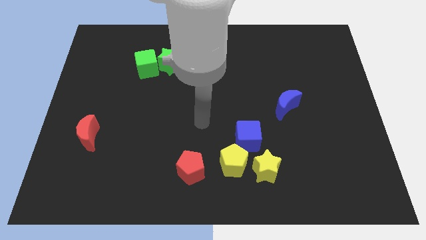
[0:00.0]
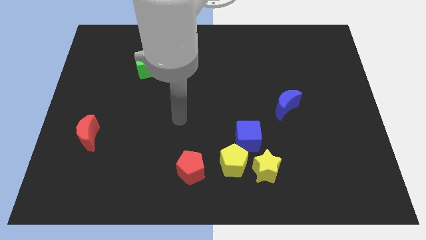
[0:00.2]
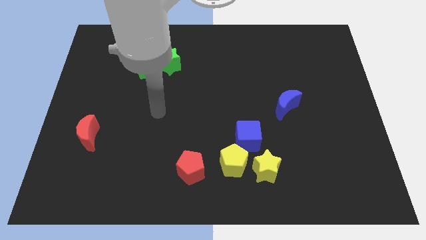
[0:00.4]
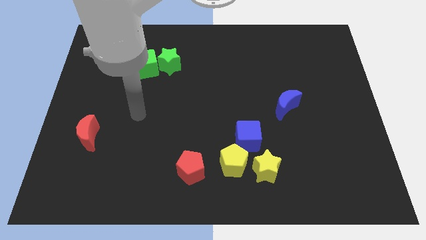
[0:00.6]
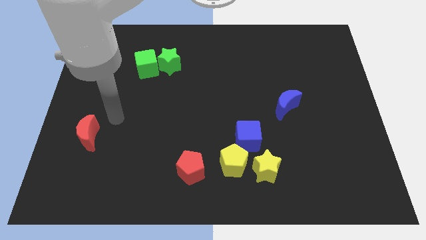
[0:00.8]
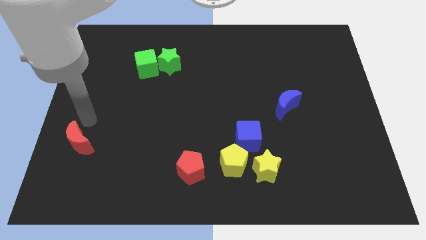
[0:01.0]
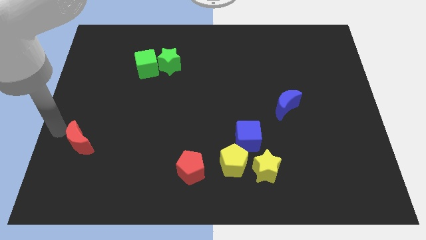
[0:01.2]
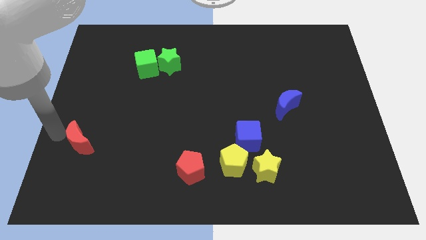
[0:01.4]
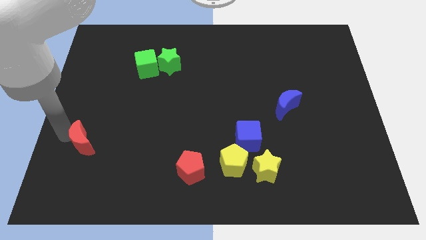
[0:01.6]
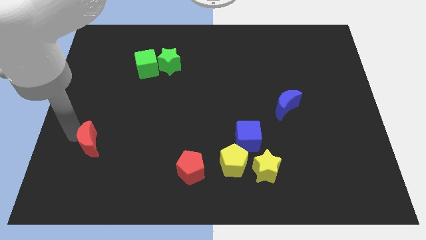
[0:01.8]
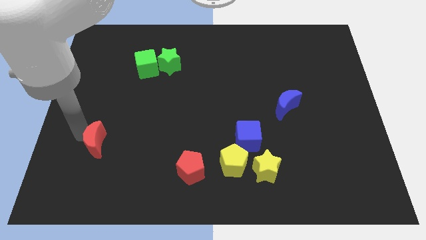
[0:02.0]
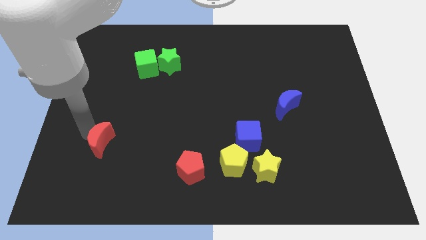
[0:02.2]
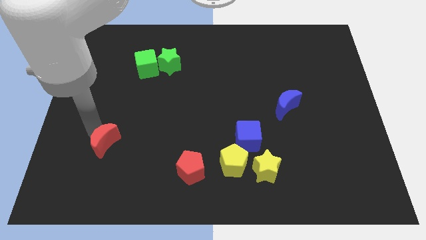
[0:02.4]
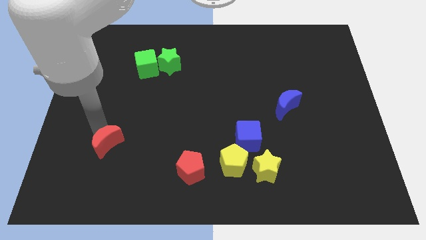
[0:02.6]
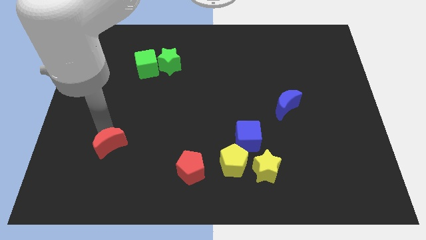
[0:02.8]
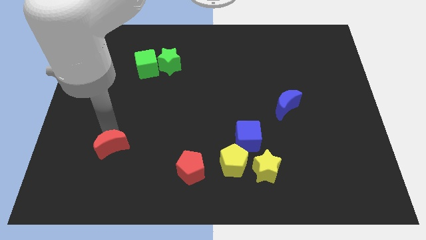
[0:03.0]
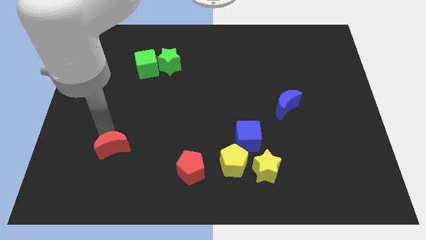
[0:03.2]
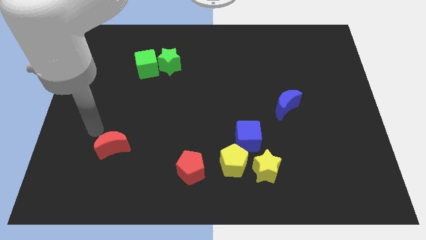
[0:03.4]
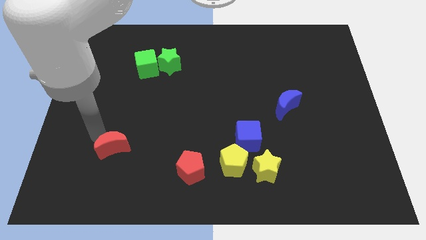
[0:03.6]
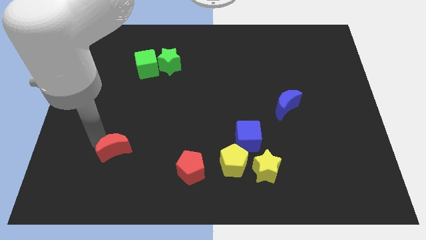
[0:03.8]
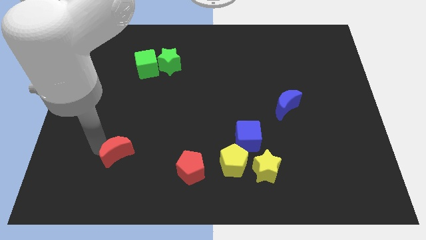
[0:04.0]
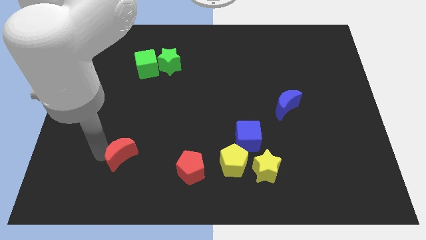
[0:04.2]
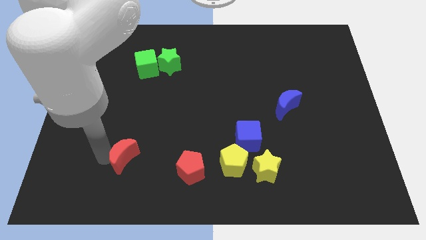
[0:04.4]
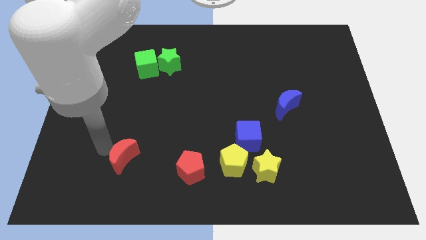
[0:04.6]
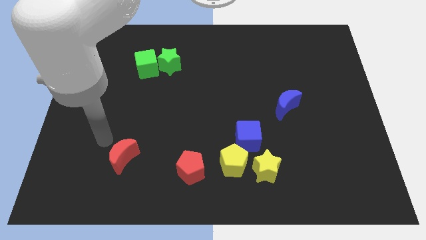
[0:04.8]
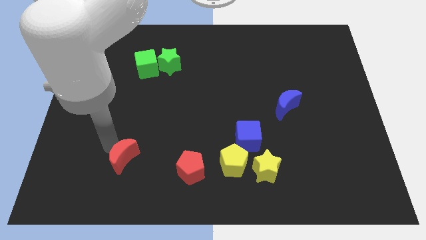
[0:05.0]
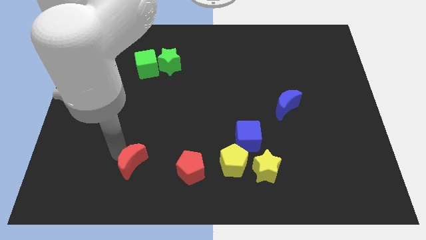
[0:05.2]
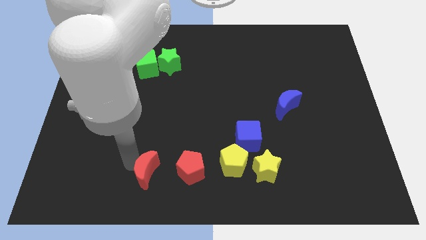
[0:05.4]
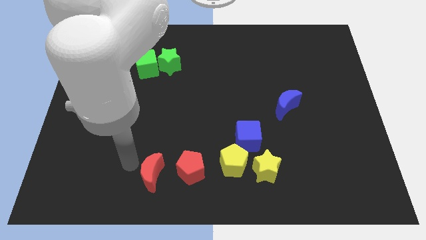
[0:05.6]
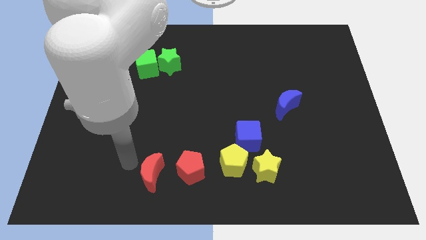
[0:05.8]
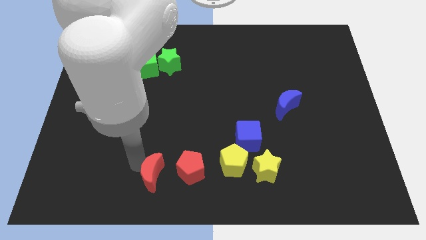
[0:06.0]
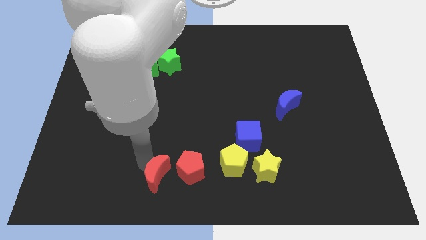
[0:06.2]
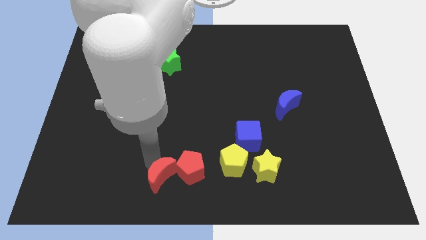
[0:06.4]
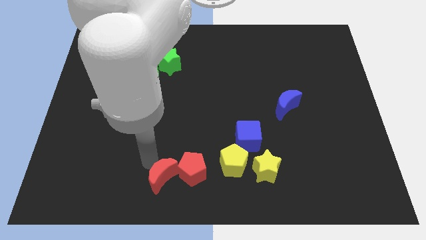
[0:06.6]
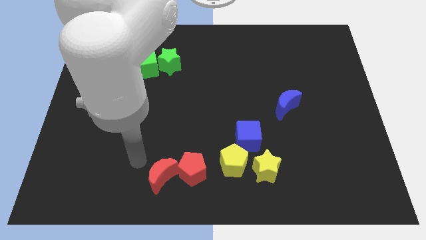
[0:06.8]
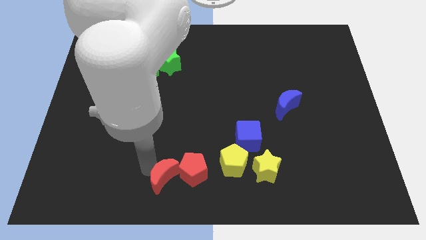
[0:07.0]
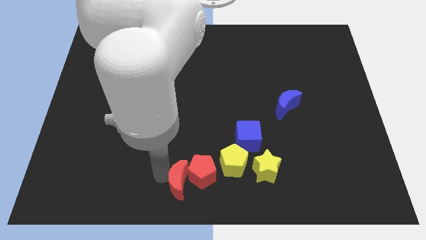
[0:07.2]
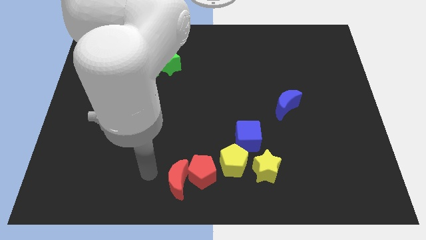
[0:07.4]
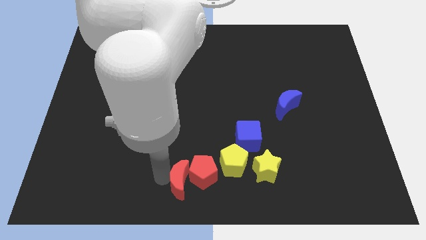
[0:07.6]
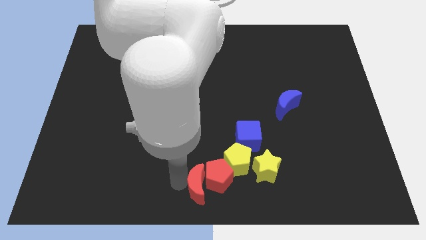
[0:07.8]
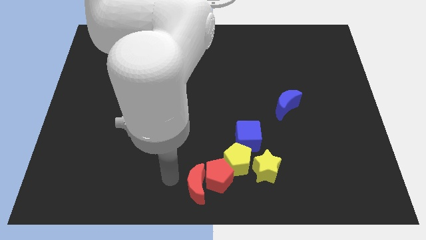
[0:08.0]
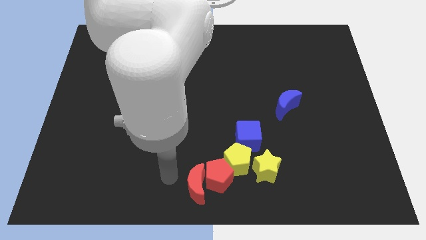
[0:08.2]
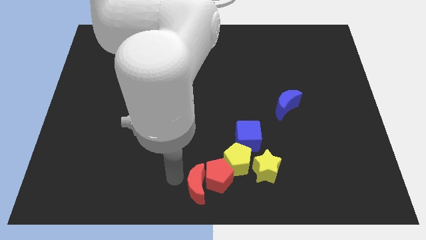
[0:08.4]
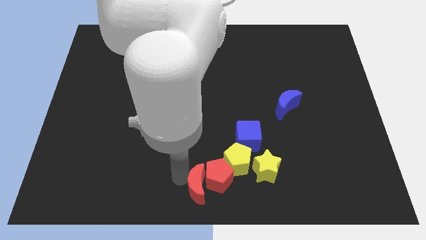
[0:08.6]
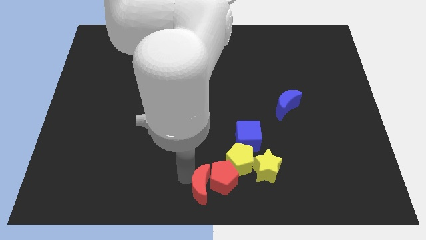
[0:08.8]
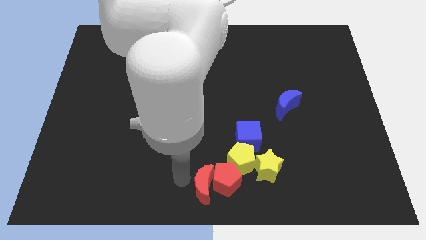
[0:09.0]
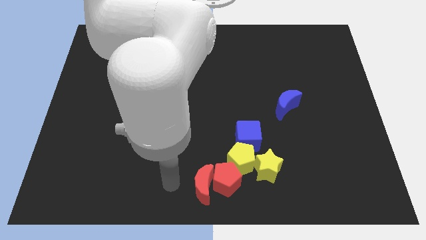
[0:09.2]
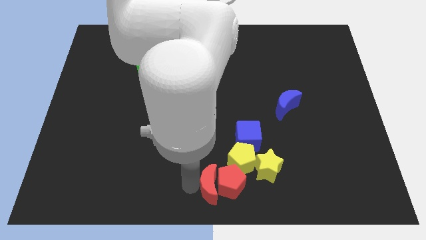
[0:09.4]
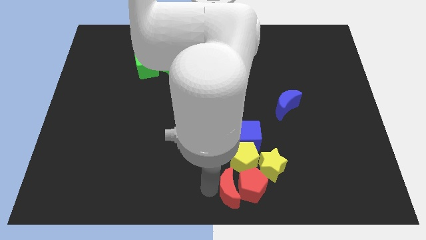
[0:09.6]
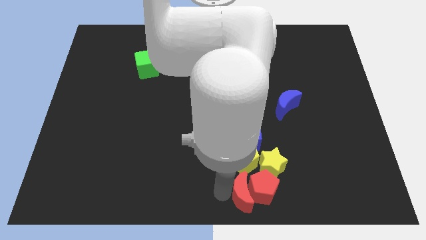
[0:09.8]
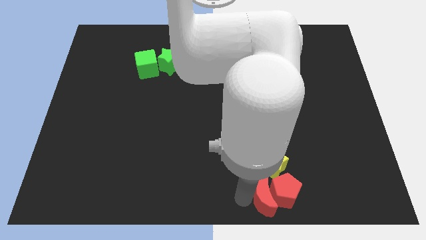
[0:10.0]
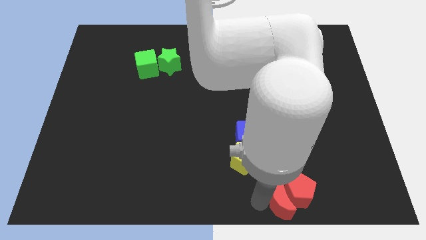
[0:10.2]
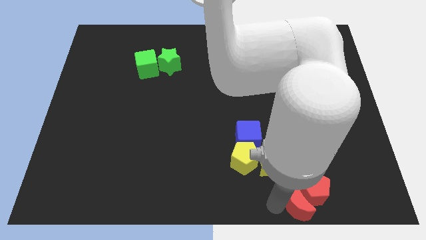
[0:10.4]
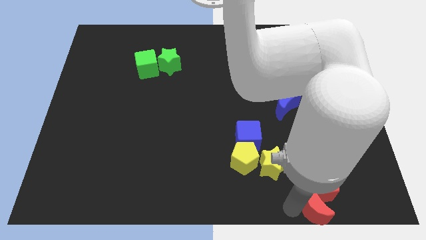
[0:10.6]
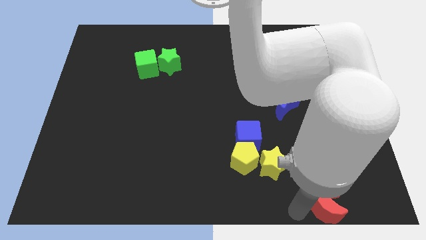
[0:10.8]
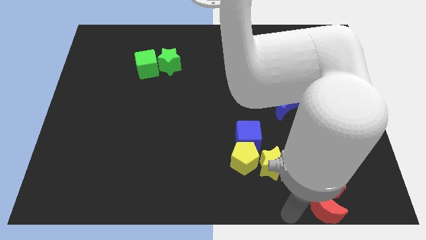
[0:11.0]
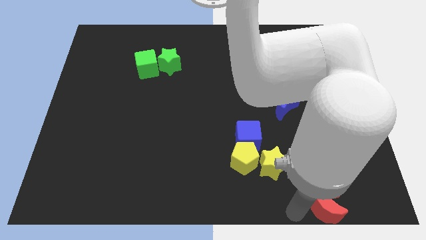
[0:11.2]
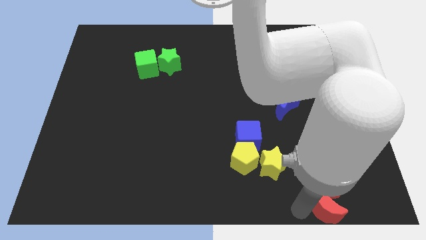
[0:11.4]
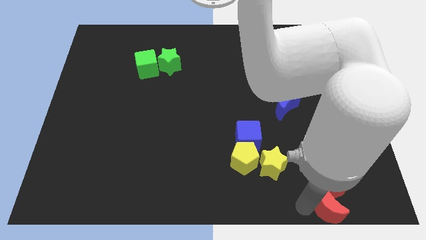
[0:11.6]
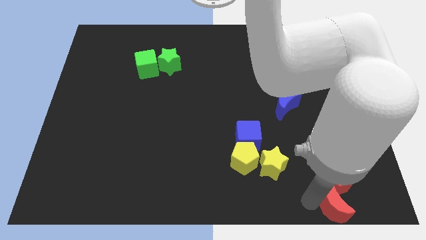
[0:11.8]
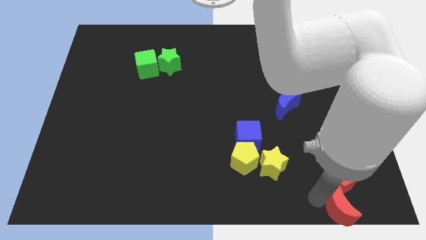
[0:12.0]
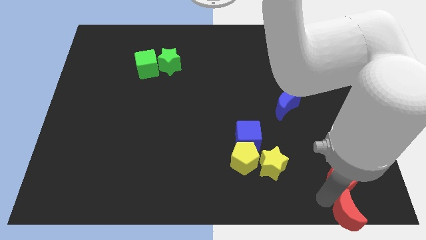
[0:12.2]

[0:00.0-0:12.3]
push the red moon to the lower right corner
